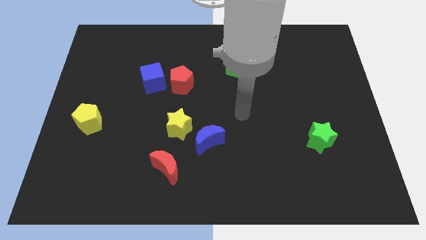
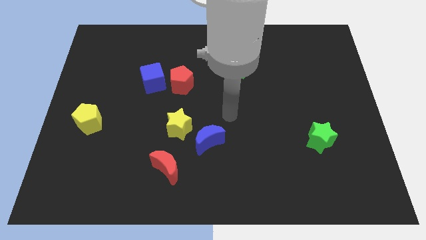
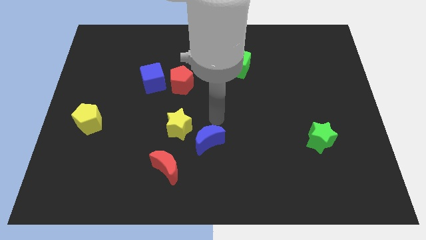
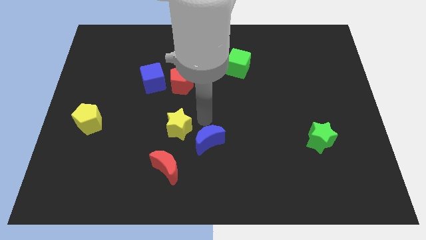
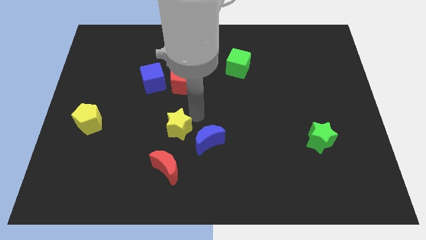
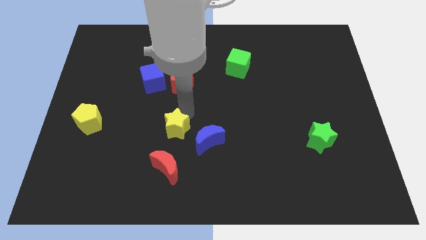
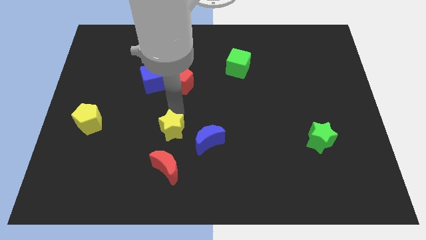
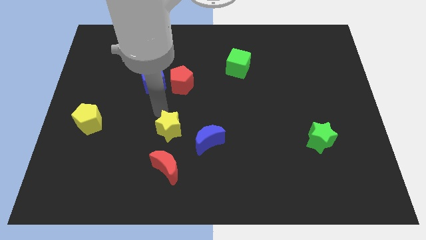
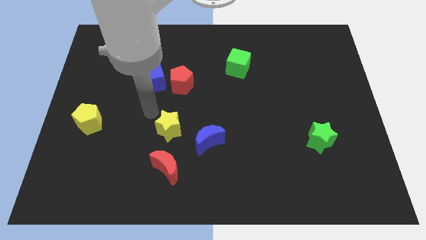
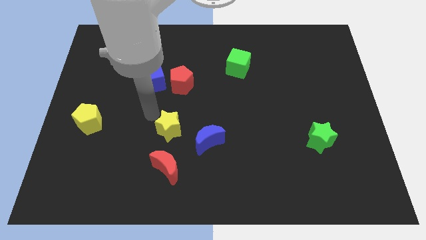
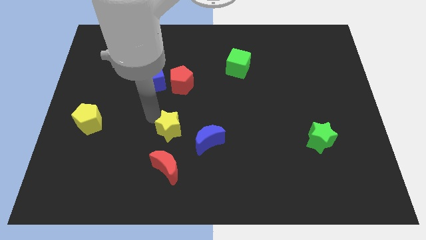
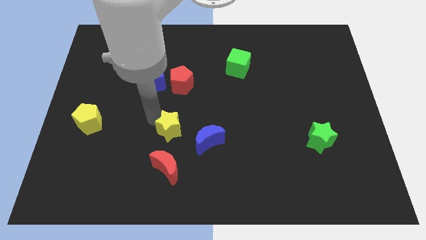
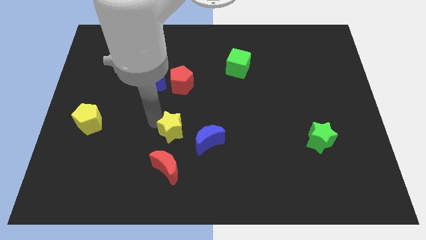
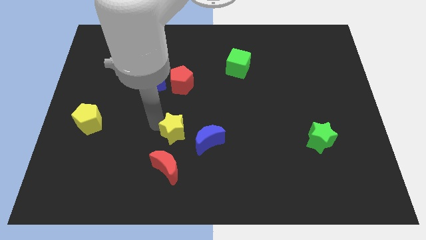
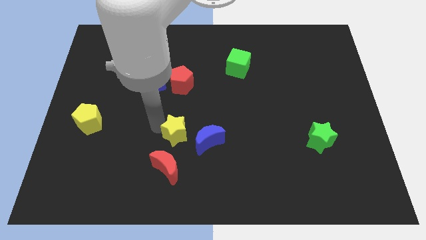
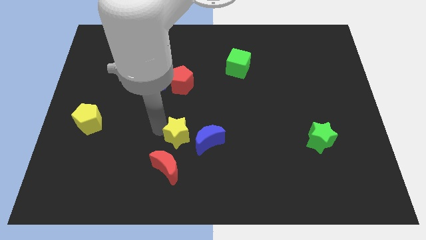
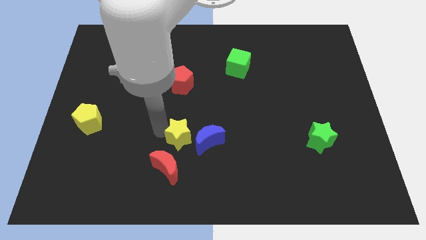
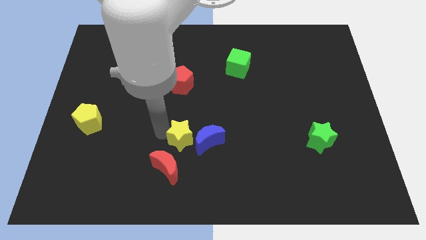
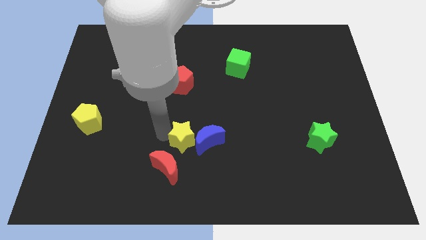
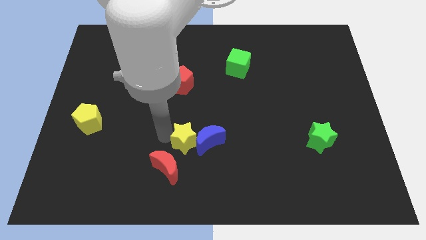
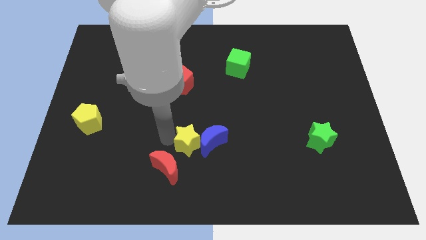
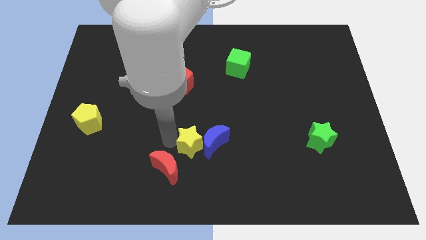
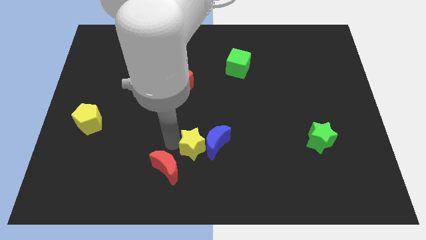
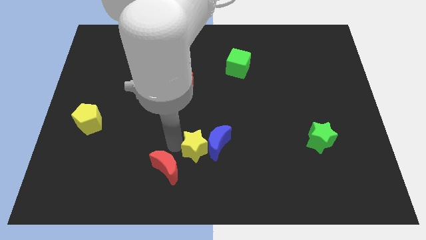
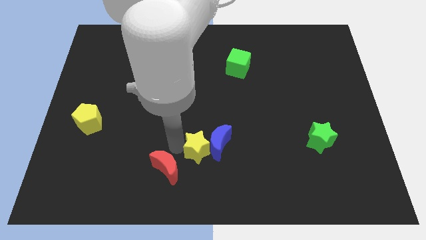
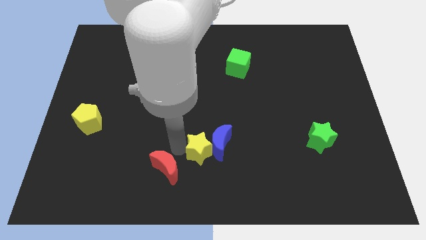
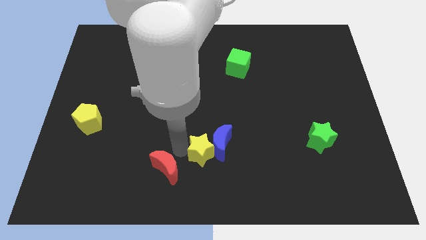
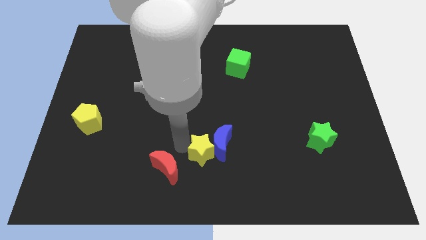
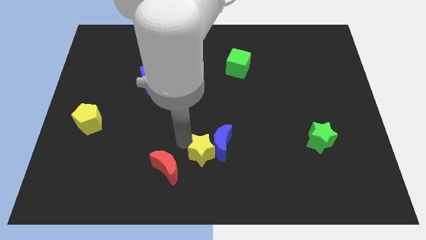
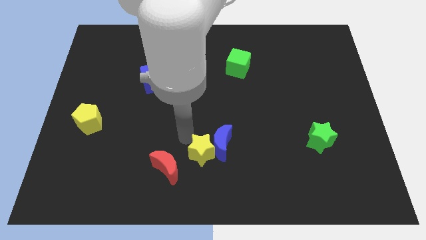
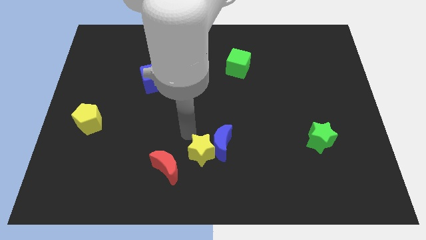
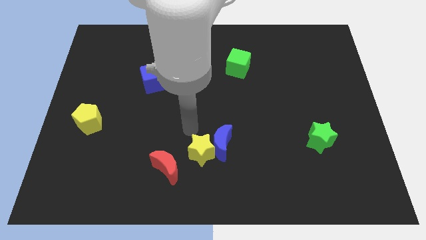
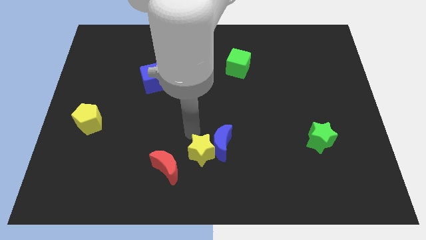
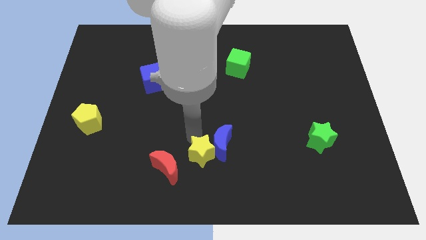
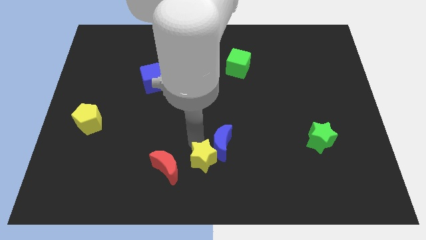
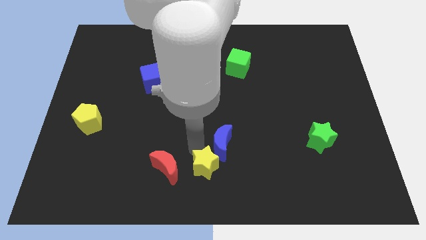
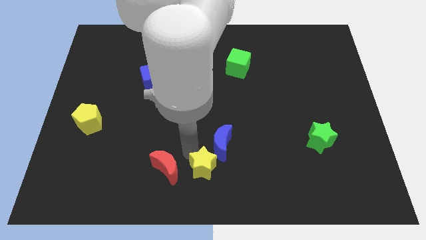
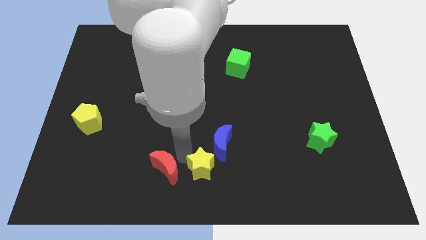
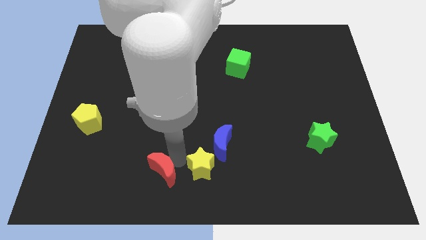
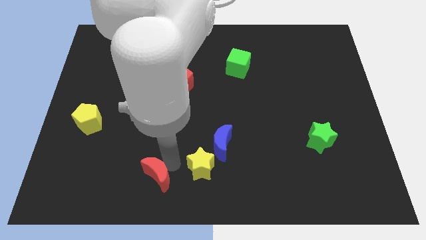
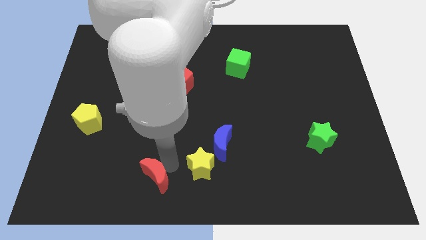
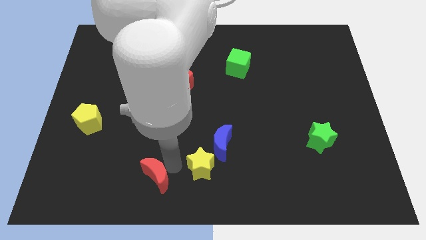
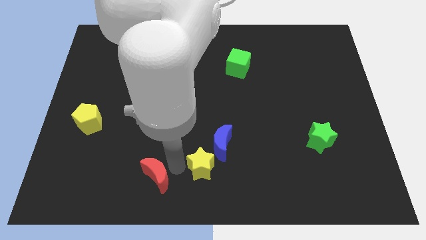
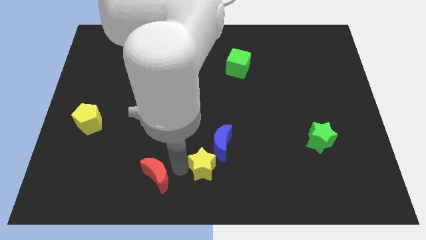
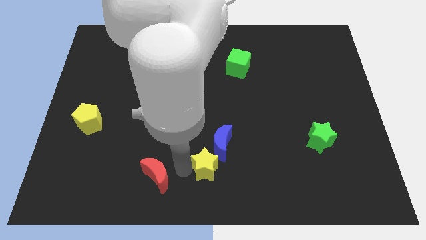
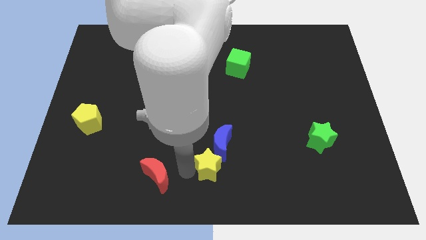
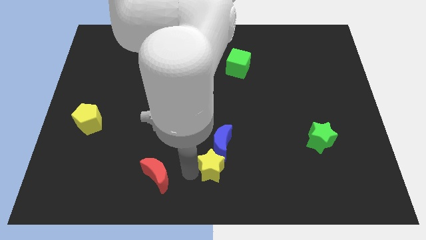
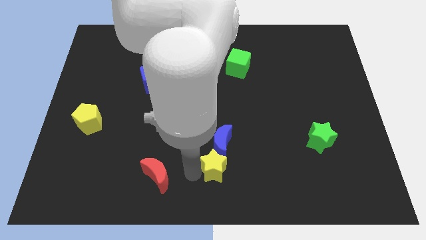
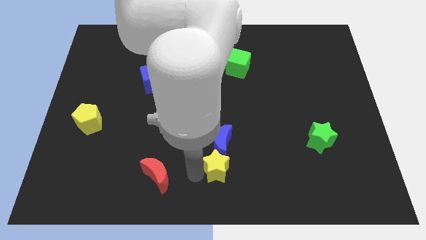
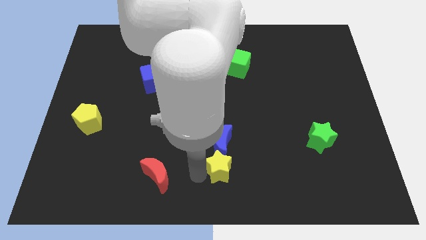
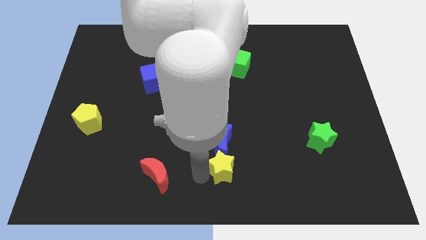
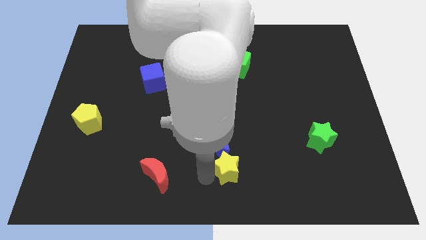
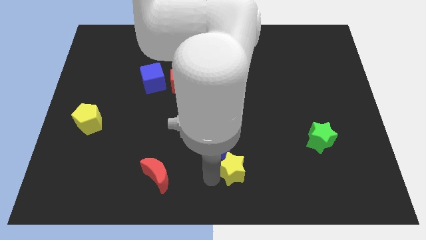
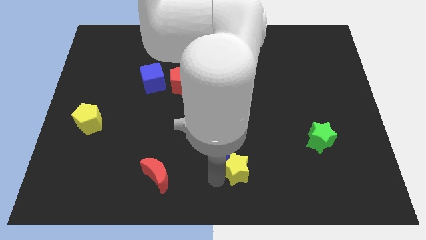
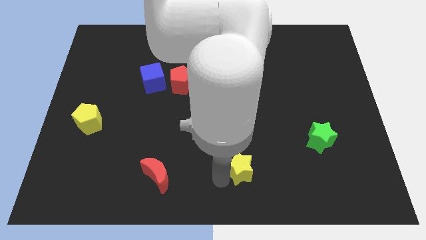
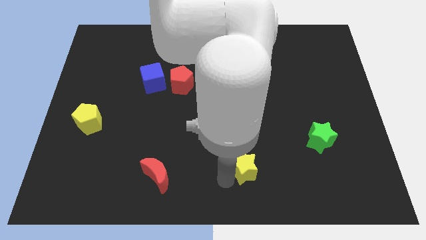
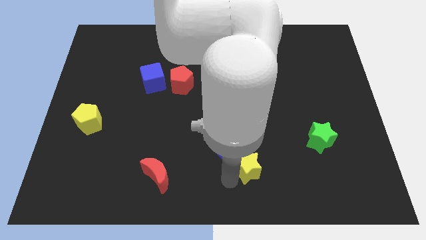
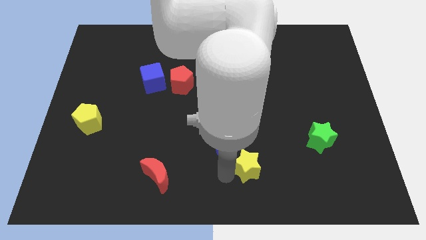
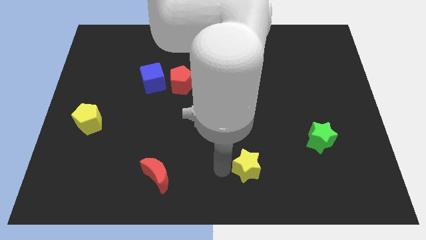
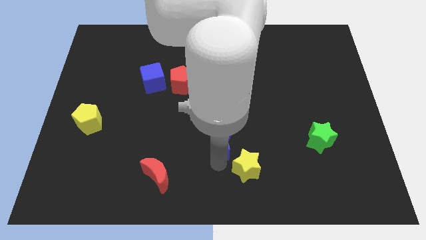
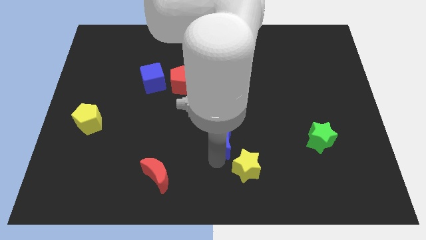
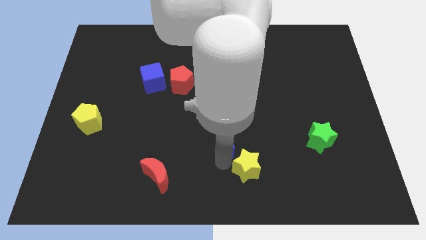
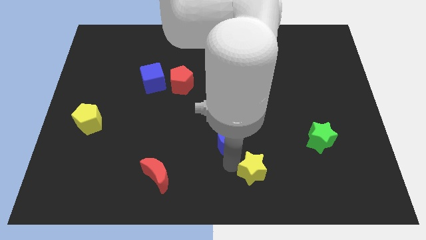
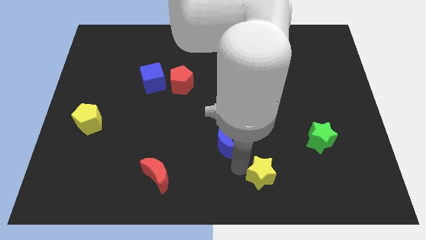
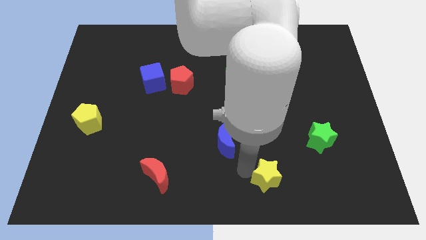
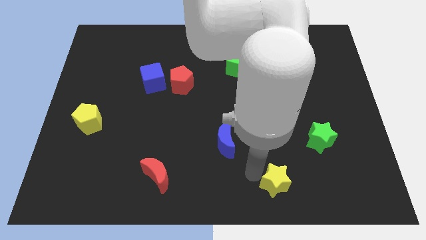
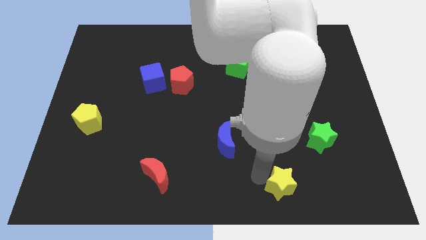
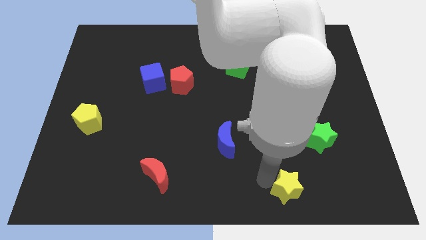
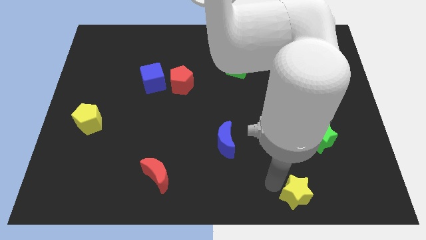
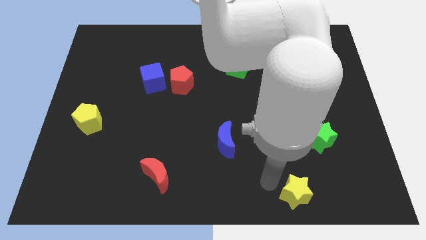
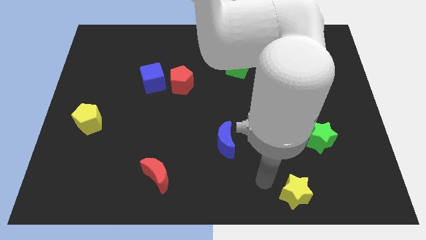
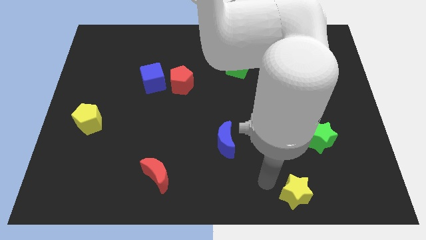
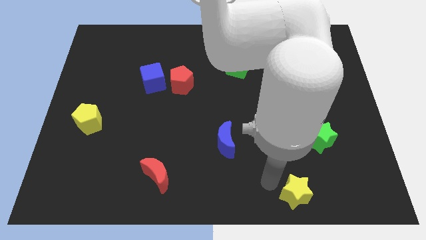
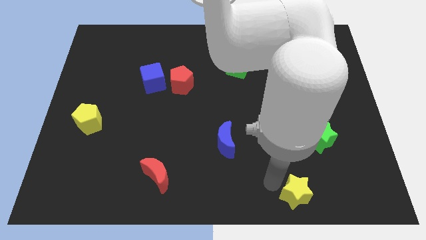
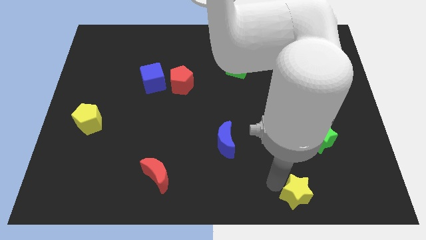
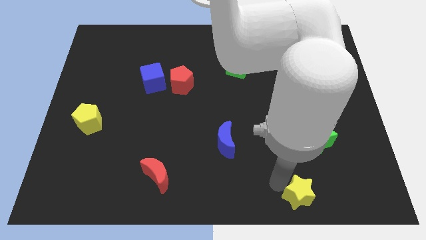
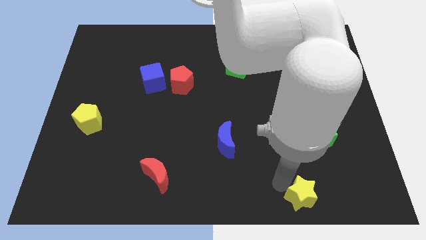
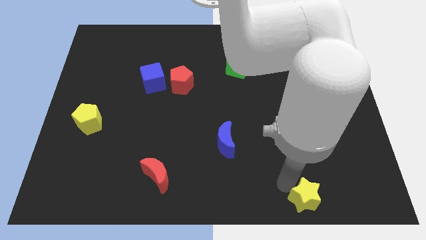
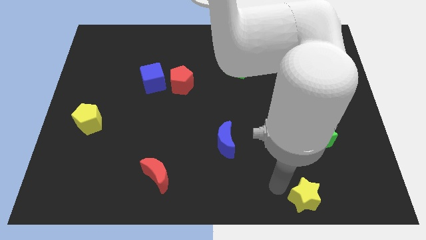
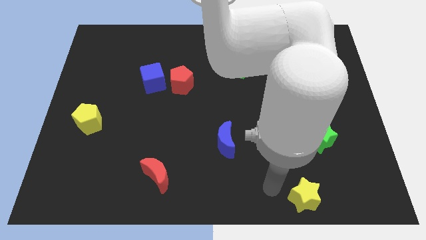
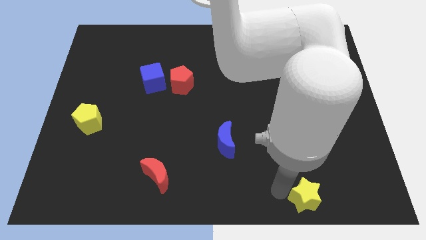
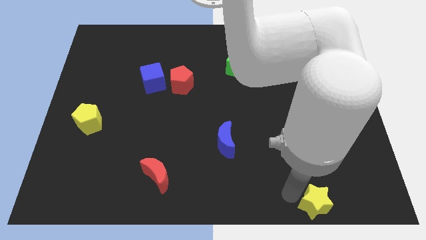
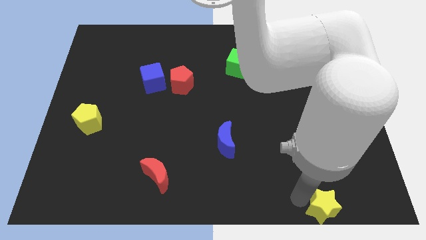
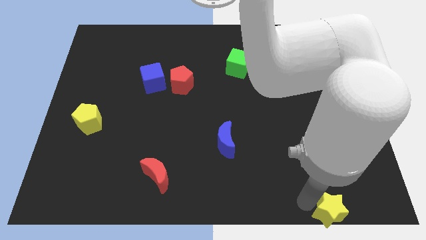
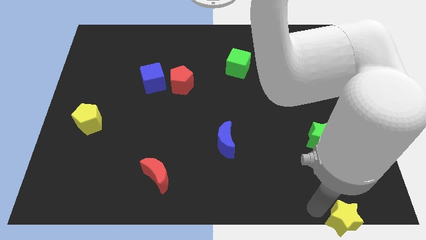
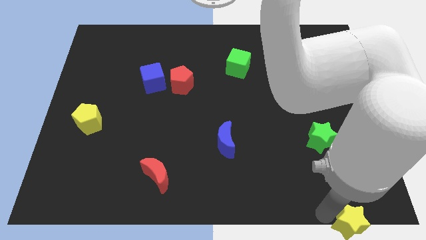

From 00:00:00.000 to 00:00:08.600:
move the yellow star to the bottom right corner
